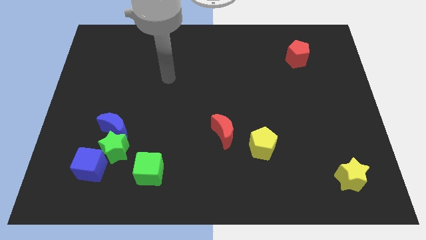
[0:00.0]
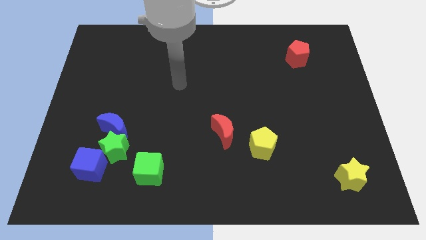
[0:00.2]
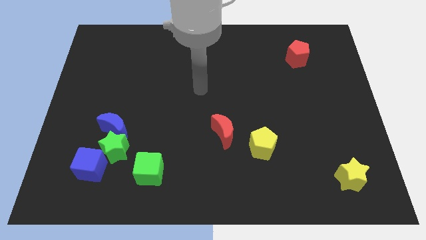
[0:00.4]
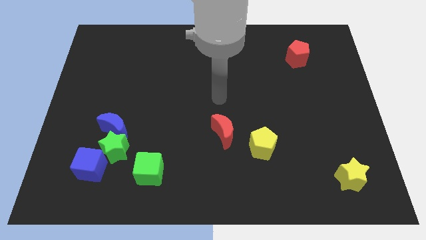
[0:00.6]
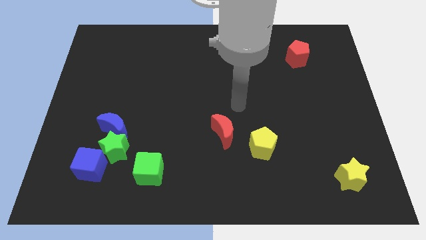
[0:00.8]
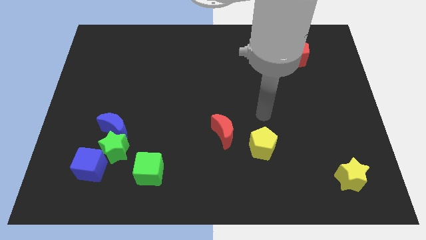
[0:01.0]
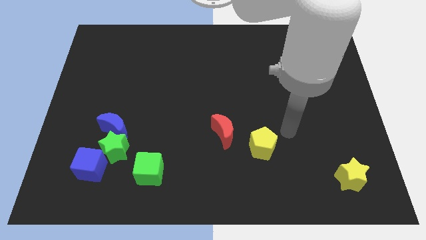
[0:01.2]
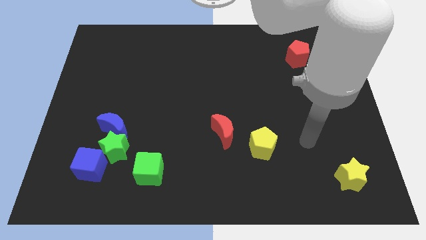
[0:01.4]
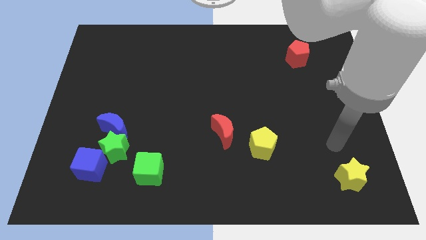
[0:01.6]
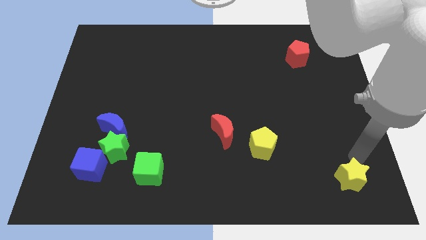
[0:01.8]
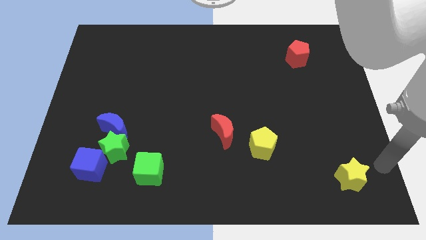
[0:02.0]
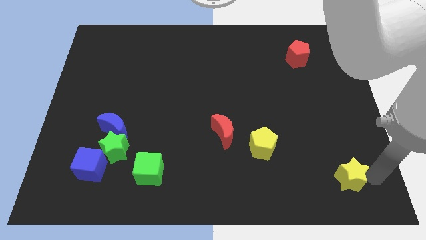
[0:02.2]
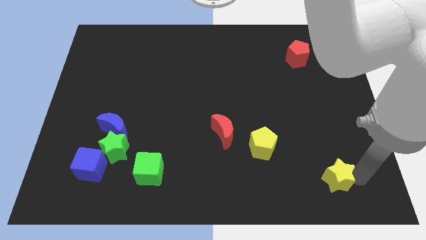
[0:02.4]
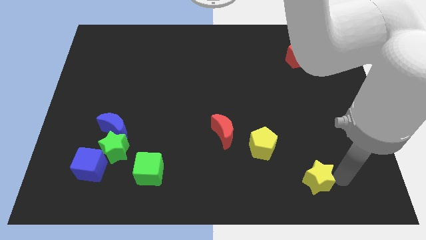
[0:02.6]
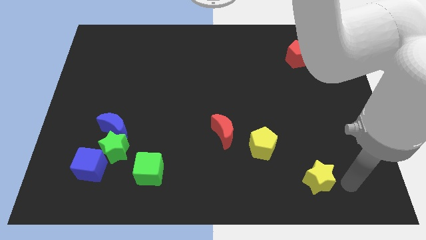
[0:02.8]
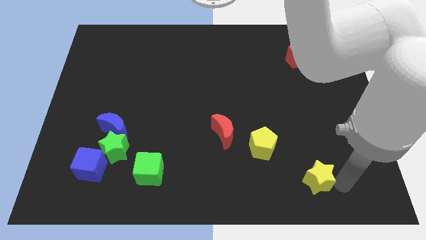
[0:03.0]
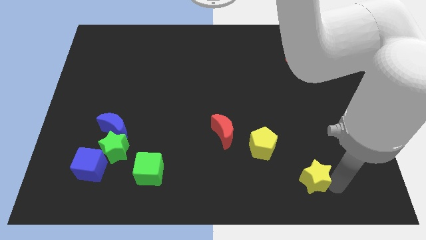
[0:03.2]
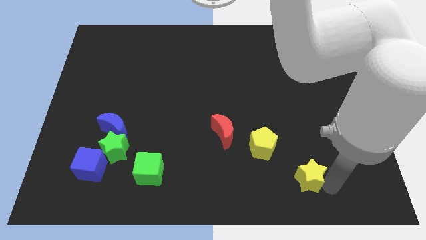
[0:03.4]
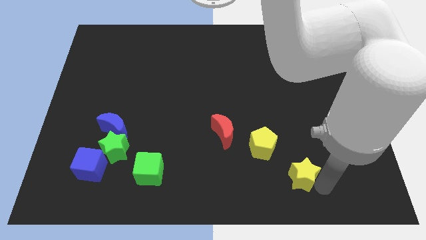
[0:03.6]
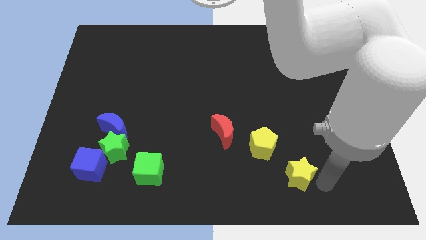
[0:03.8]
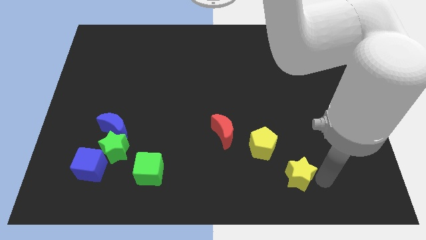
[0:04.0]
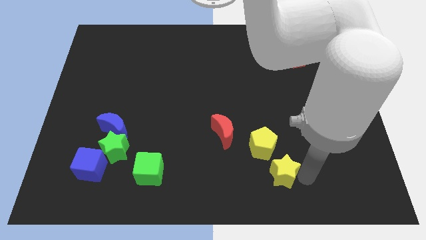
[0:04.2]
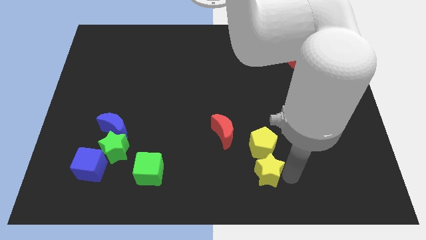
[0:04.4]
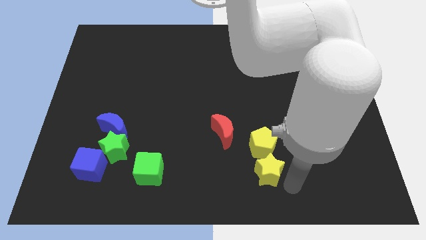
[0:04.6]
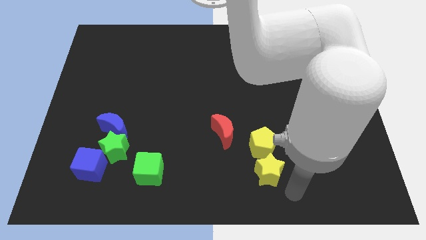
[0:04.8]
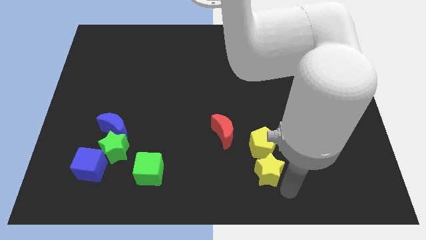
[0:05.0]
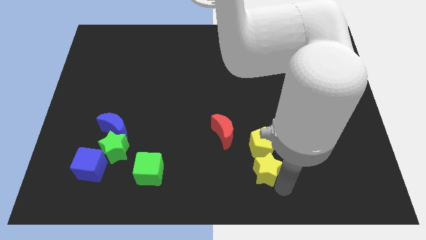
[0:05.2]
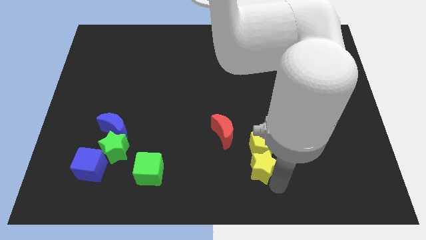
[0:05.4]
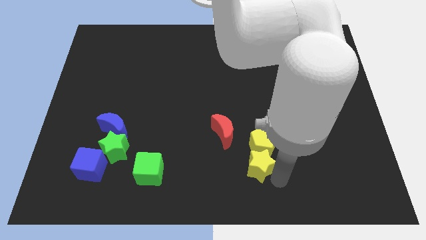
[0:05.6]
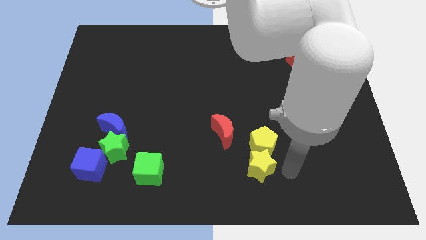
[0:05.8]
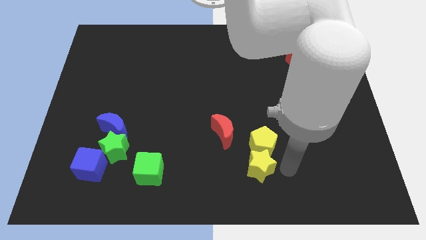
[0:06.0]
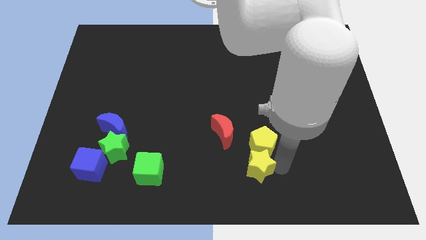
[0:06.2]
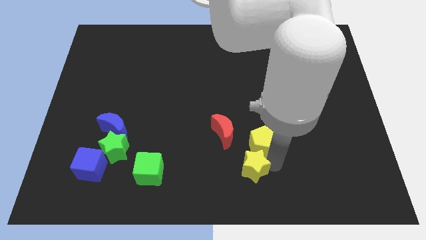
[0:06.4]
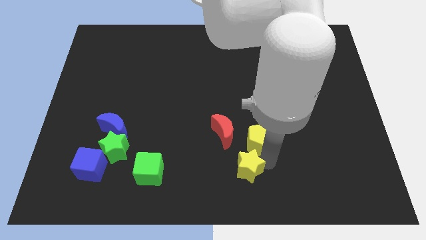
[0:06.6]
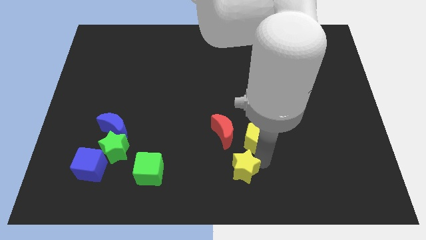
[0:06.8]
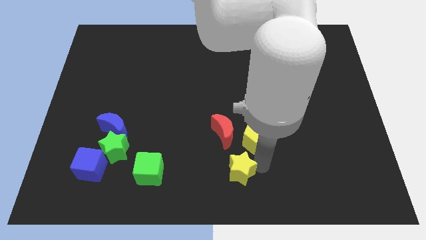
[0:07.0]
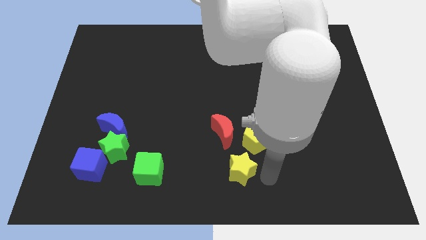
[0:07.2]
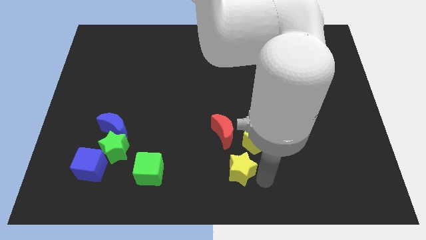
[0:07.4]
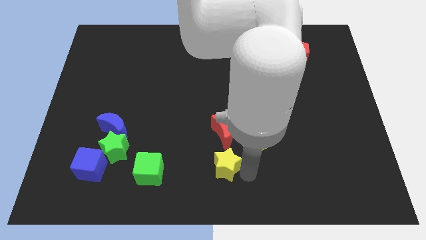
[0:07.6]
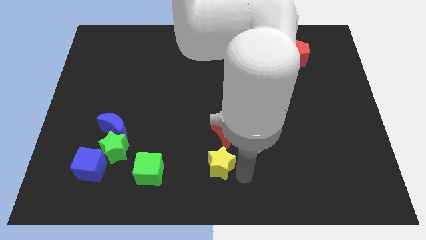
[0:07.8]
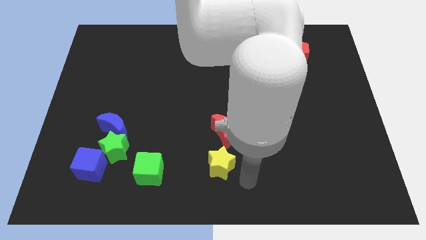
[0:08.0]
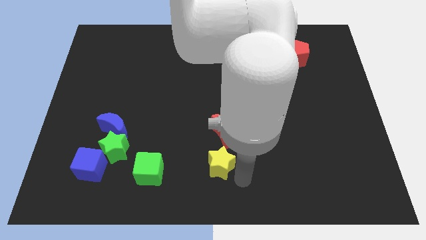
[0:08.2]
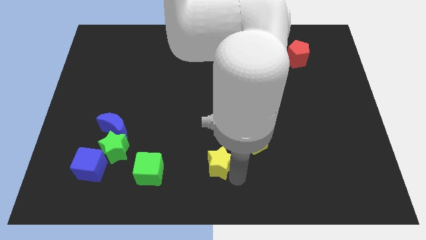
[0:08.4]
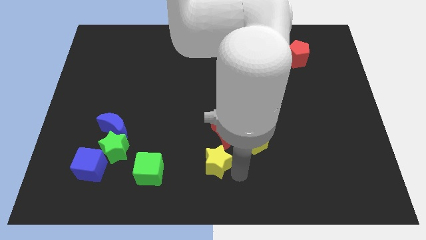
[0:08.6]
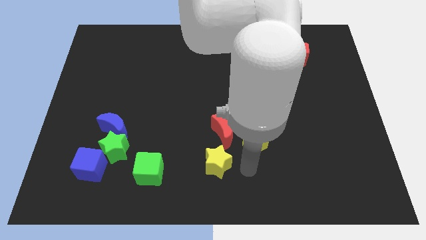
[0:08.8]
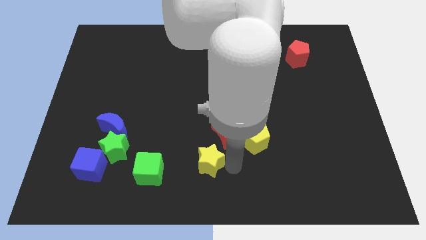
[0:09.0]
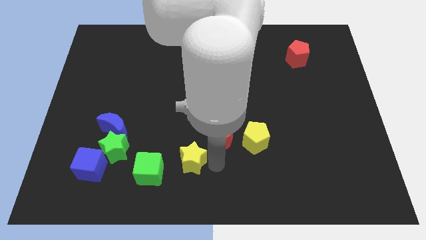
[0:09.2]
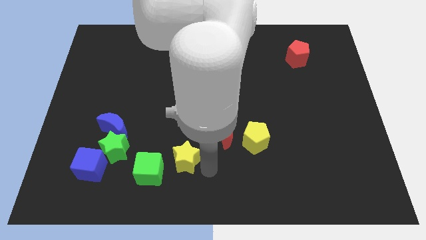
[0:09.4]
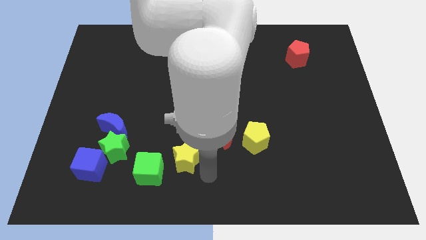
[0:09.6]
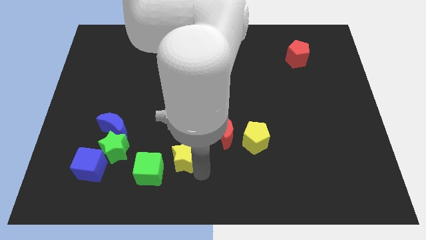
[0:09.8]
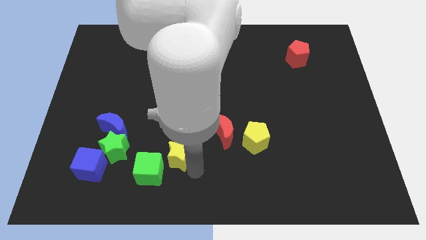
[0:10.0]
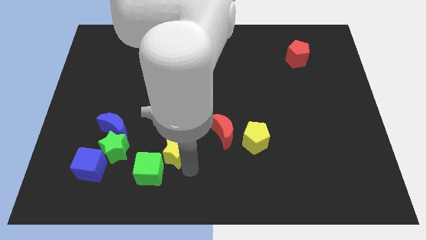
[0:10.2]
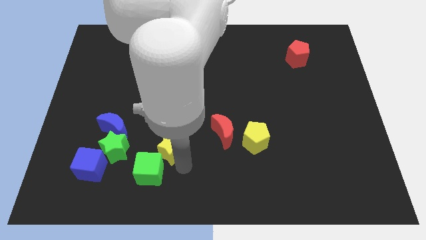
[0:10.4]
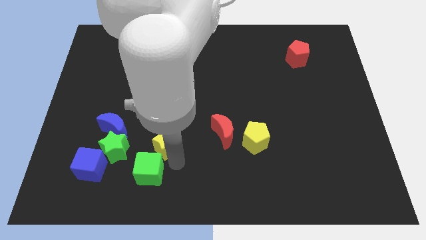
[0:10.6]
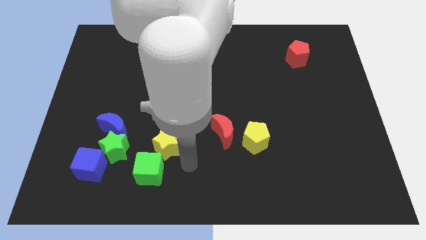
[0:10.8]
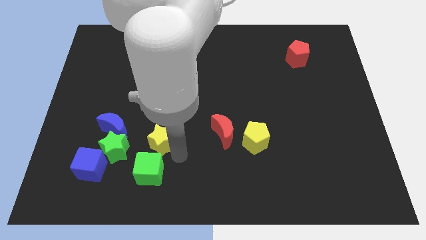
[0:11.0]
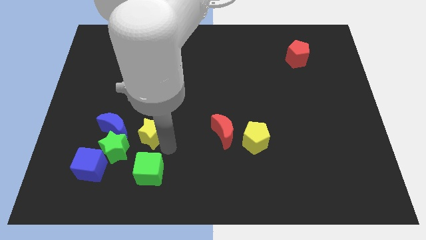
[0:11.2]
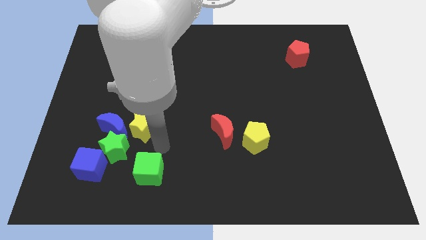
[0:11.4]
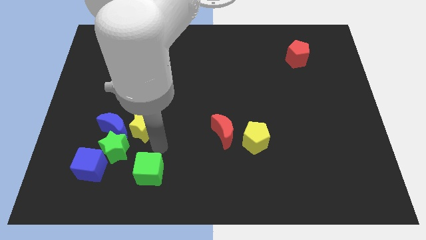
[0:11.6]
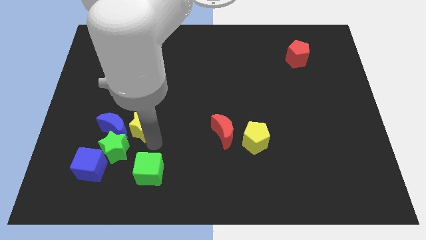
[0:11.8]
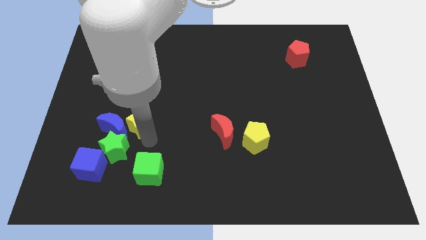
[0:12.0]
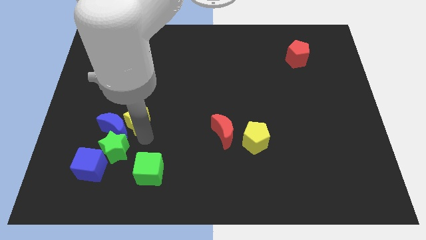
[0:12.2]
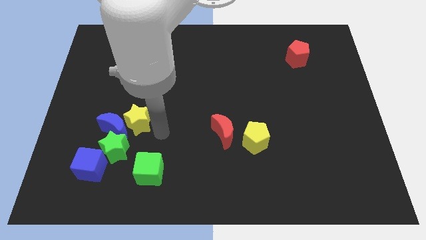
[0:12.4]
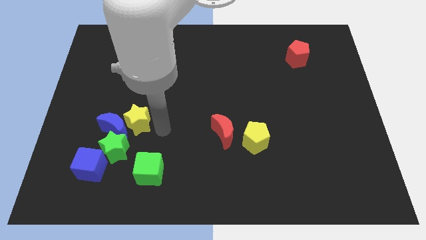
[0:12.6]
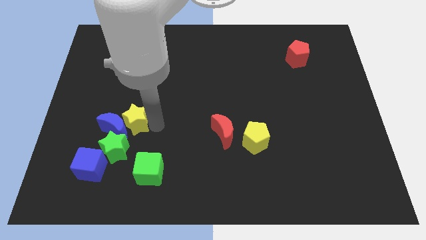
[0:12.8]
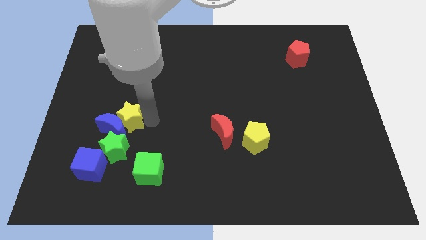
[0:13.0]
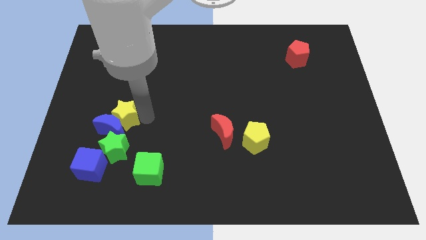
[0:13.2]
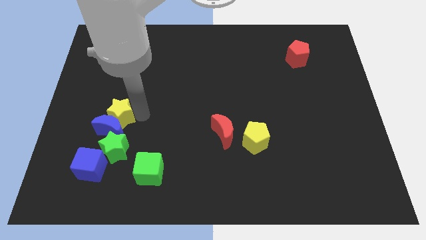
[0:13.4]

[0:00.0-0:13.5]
put the yellow star above the blue cube

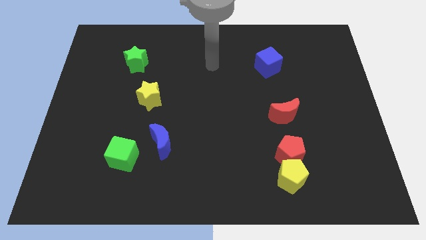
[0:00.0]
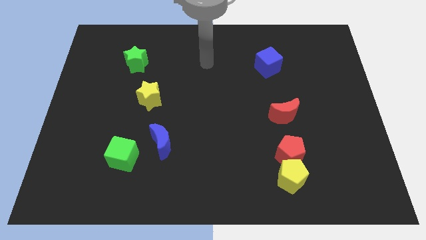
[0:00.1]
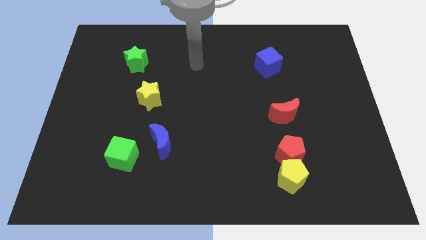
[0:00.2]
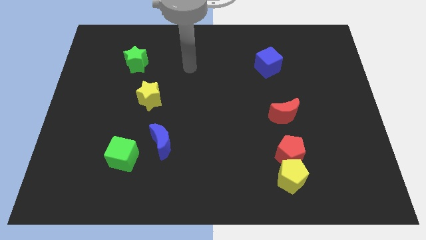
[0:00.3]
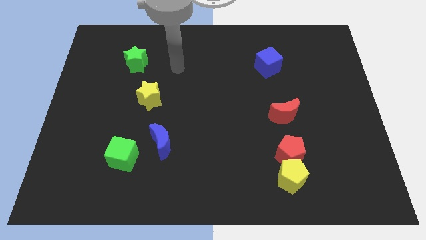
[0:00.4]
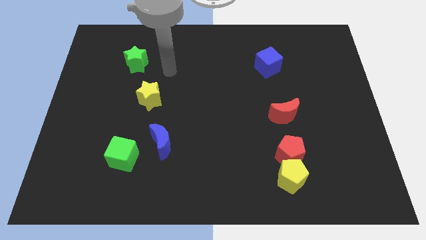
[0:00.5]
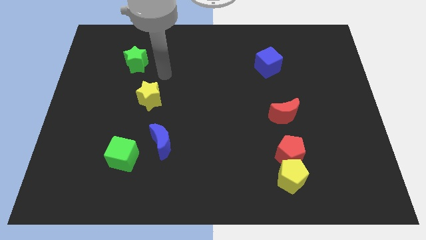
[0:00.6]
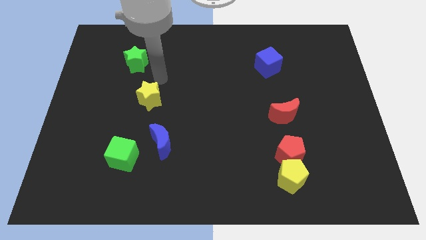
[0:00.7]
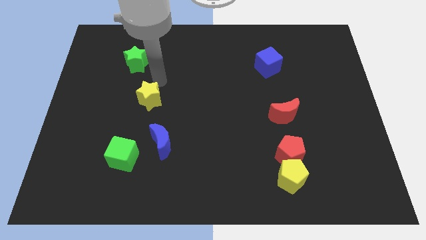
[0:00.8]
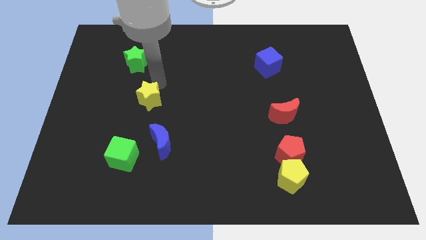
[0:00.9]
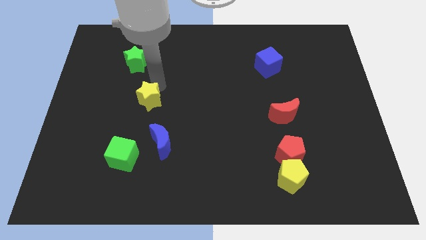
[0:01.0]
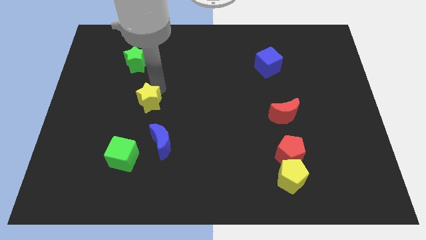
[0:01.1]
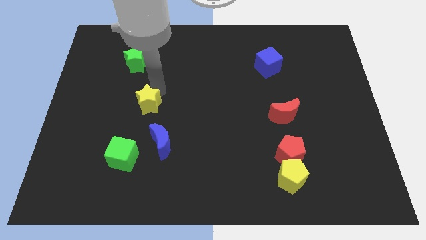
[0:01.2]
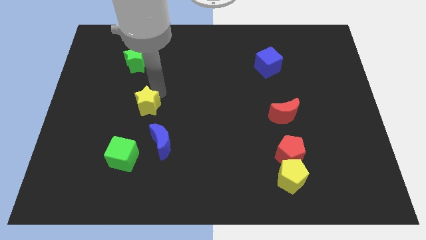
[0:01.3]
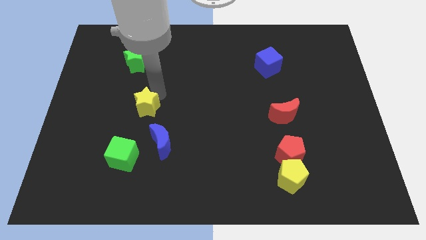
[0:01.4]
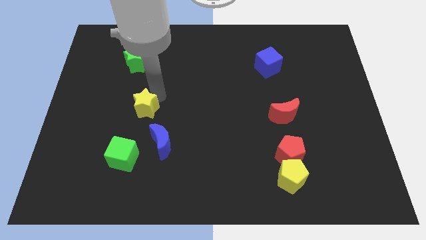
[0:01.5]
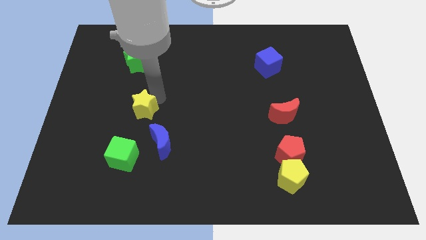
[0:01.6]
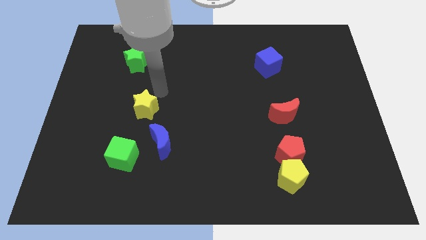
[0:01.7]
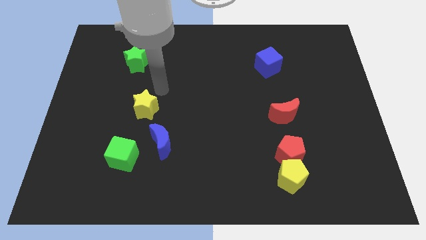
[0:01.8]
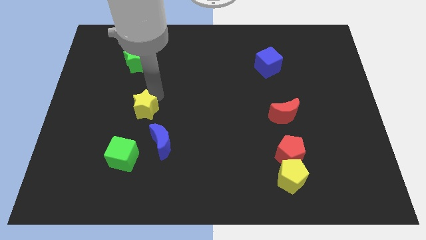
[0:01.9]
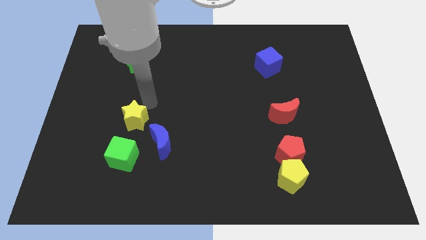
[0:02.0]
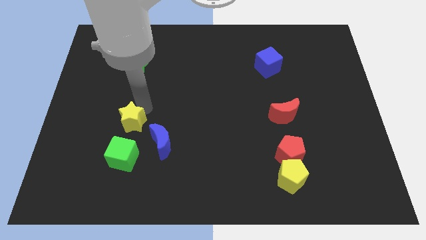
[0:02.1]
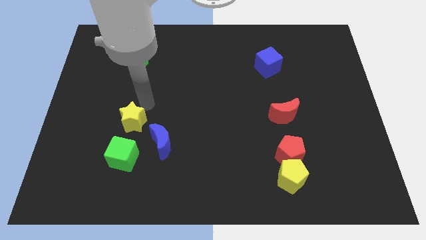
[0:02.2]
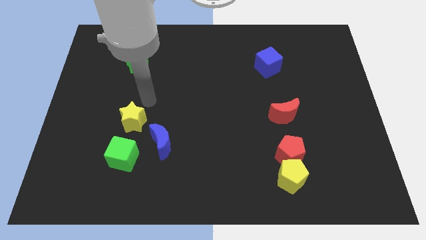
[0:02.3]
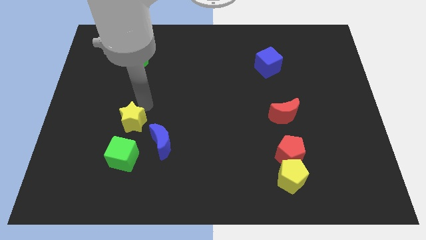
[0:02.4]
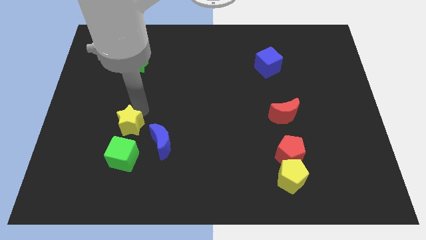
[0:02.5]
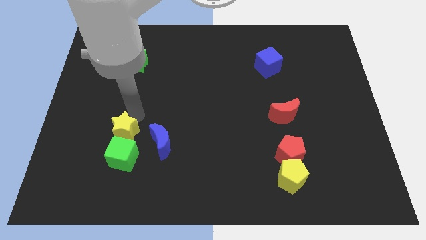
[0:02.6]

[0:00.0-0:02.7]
put the yellow star to the left side of the blue moon
